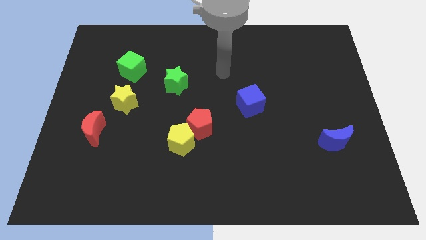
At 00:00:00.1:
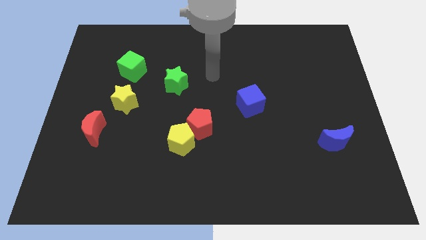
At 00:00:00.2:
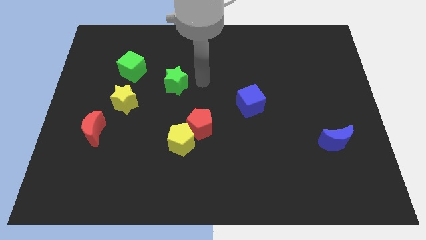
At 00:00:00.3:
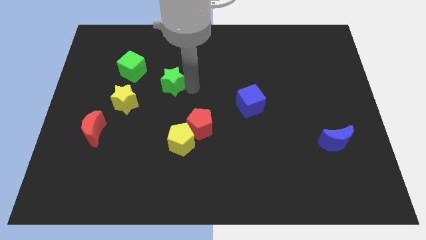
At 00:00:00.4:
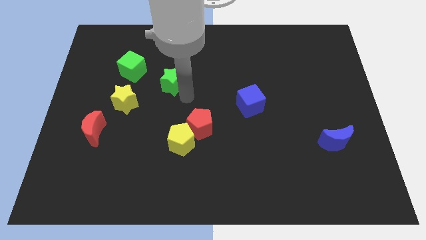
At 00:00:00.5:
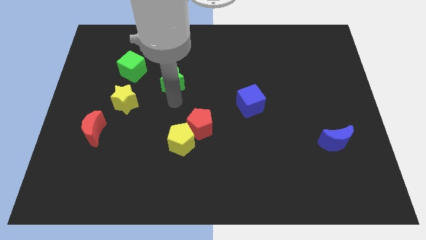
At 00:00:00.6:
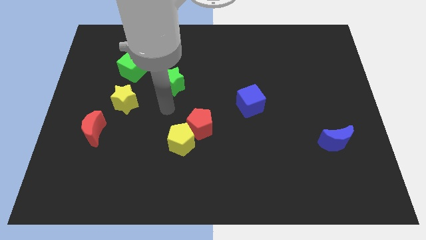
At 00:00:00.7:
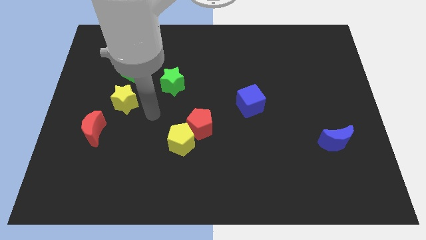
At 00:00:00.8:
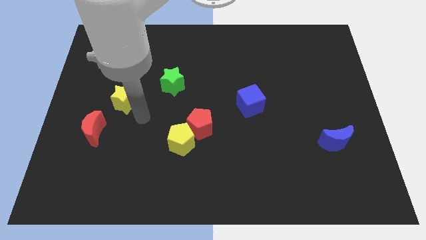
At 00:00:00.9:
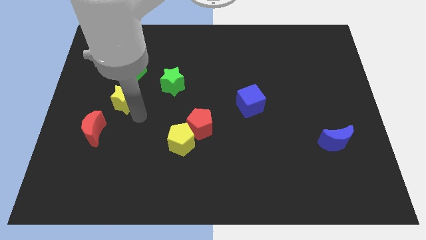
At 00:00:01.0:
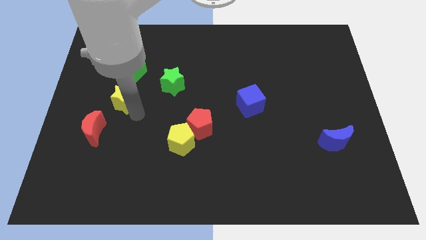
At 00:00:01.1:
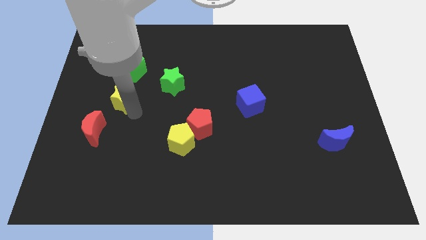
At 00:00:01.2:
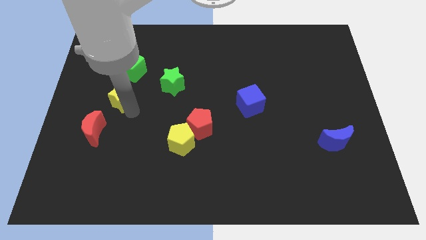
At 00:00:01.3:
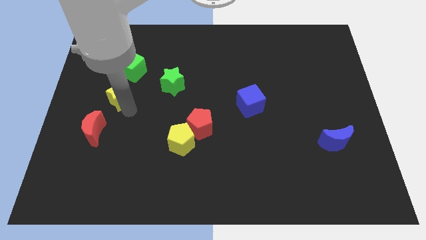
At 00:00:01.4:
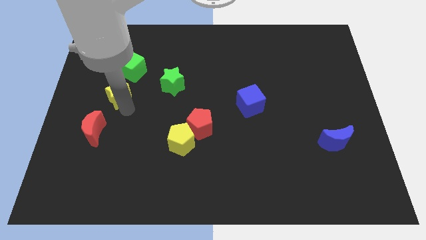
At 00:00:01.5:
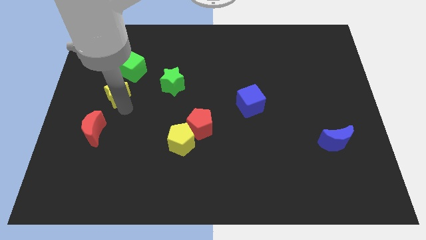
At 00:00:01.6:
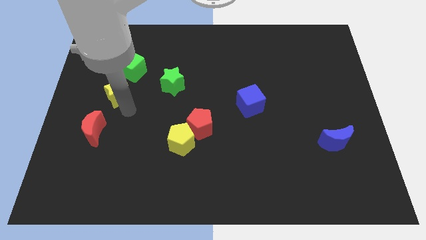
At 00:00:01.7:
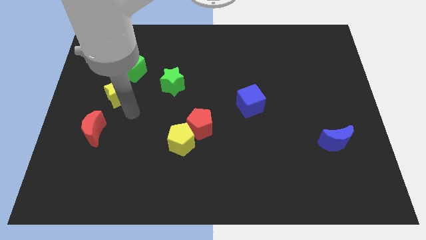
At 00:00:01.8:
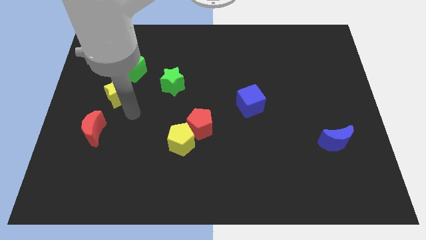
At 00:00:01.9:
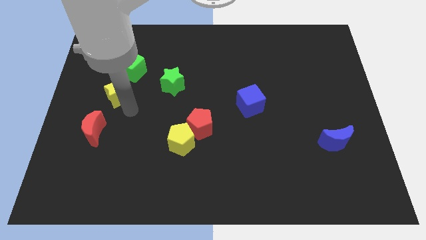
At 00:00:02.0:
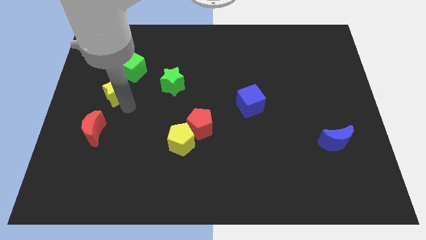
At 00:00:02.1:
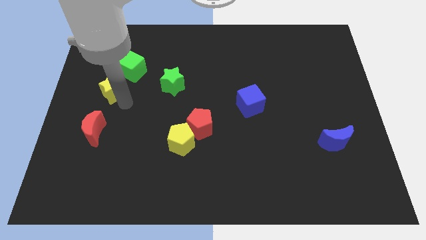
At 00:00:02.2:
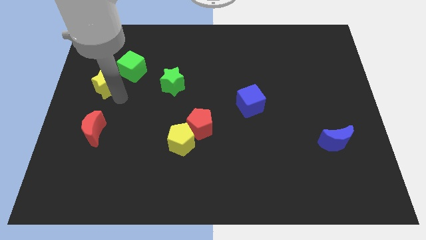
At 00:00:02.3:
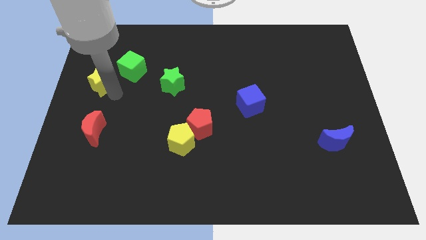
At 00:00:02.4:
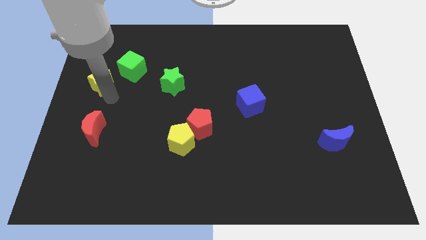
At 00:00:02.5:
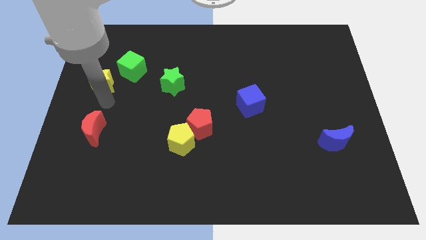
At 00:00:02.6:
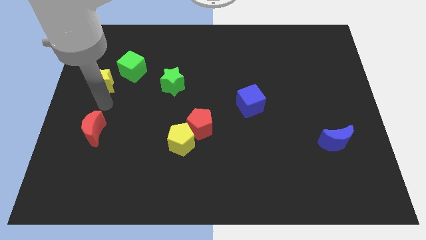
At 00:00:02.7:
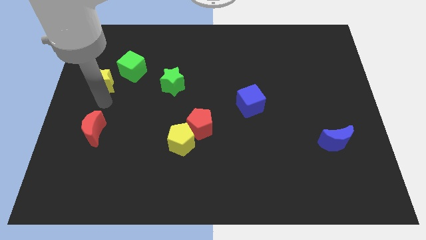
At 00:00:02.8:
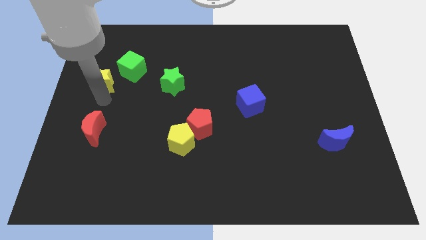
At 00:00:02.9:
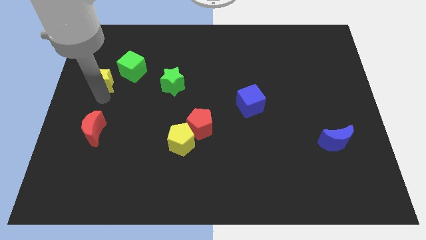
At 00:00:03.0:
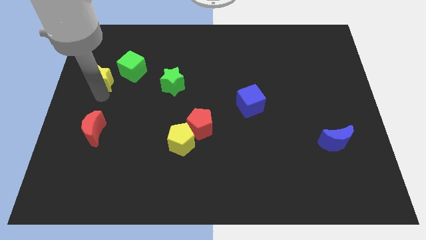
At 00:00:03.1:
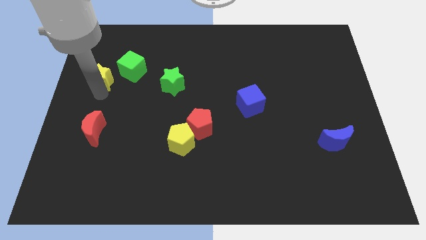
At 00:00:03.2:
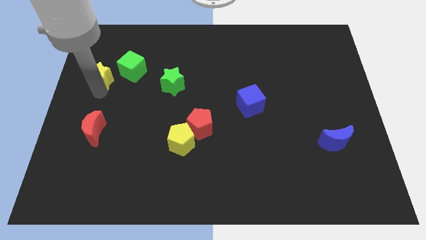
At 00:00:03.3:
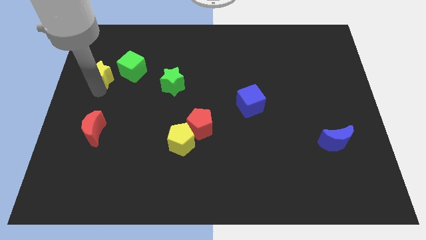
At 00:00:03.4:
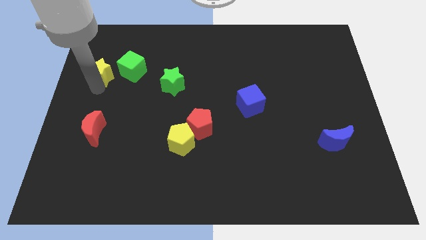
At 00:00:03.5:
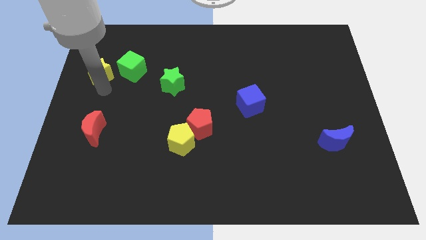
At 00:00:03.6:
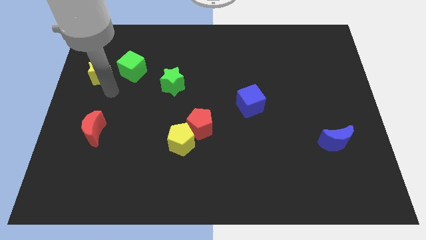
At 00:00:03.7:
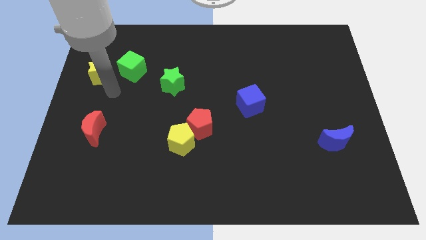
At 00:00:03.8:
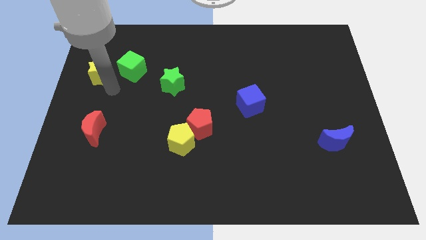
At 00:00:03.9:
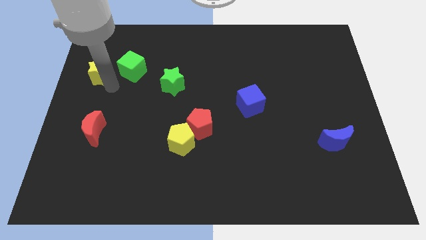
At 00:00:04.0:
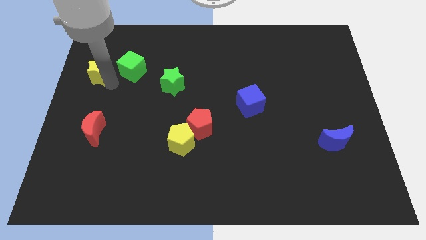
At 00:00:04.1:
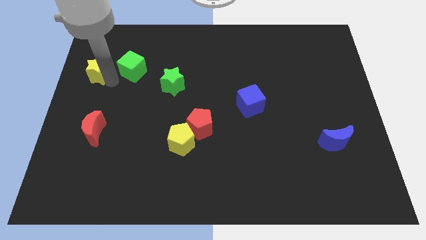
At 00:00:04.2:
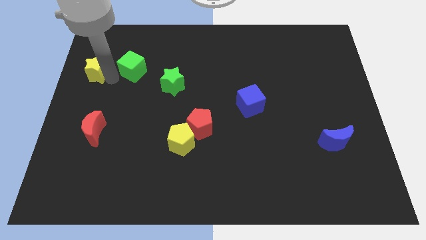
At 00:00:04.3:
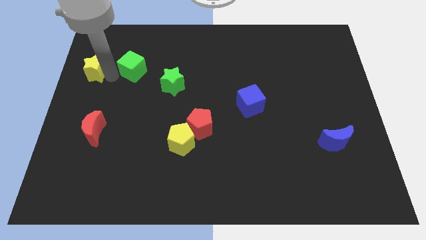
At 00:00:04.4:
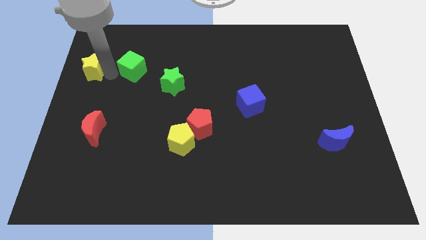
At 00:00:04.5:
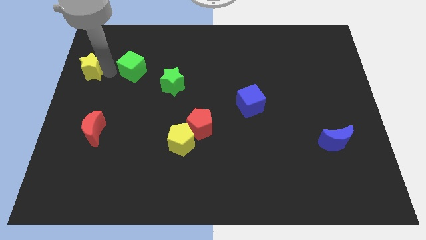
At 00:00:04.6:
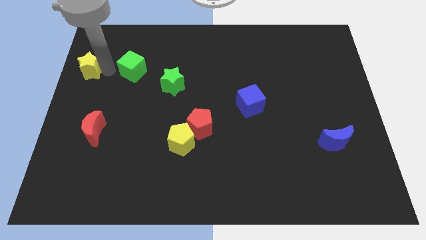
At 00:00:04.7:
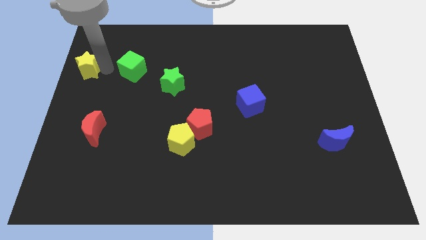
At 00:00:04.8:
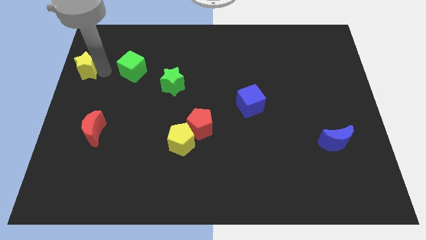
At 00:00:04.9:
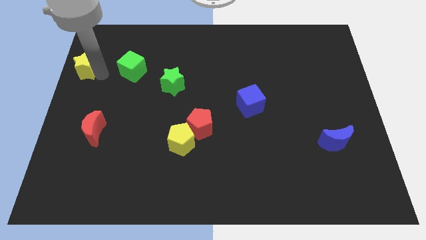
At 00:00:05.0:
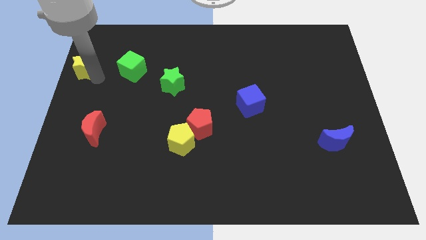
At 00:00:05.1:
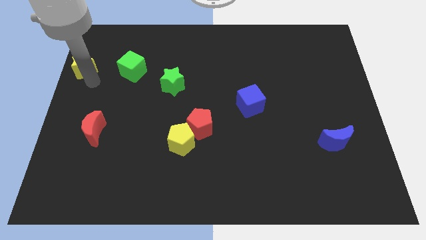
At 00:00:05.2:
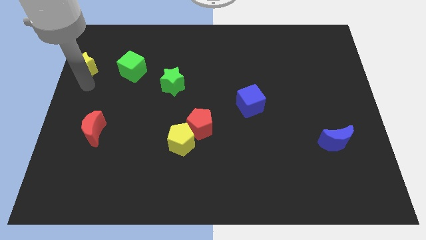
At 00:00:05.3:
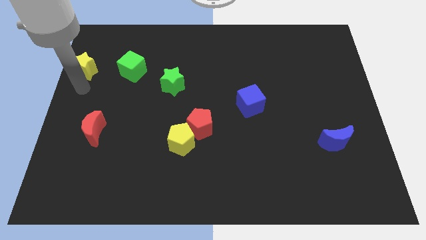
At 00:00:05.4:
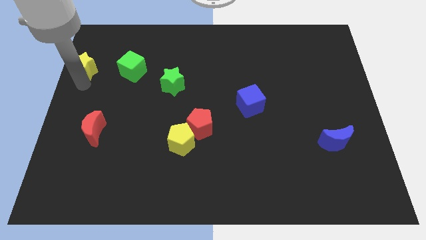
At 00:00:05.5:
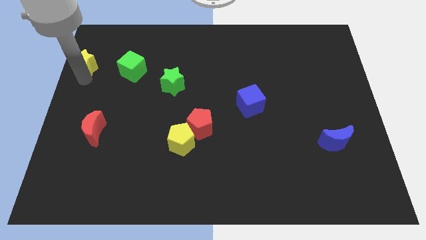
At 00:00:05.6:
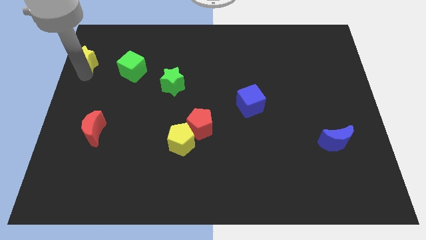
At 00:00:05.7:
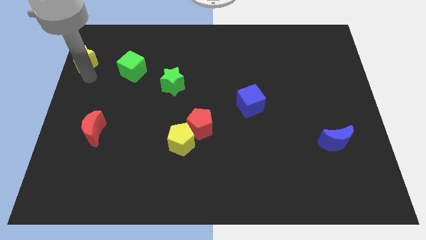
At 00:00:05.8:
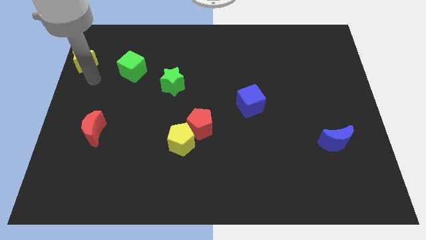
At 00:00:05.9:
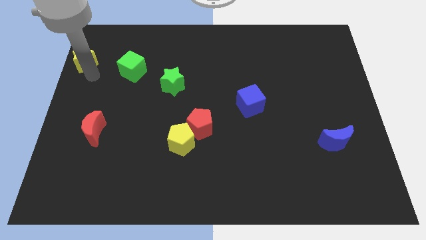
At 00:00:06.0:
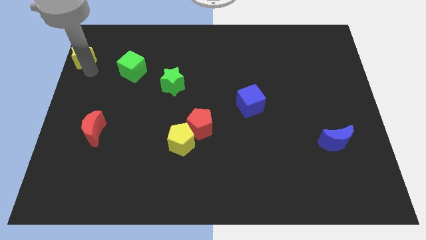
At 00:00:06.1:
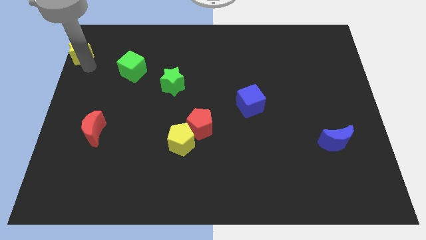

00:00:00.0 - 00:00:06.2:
slide the yellow star to the top left corner

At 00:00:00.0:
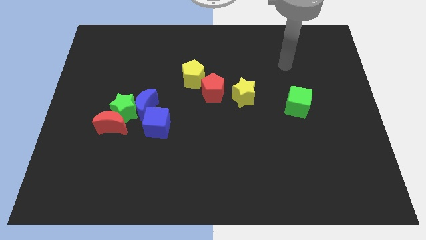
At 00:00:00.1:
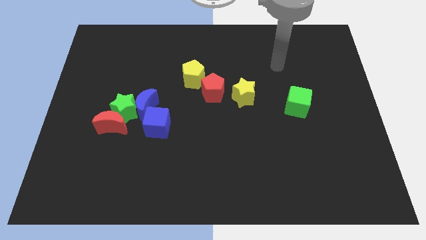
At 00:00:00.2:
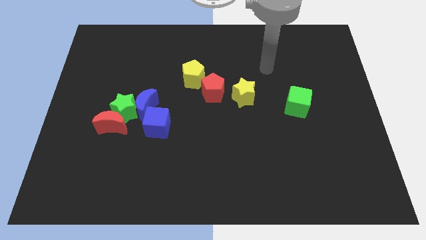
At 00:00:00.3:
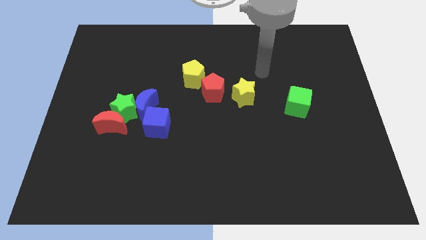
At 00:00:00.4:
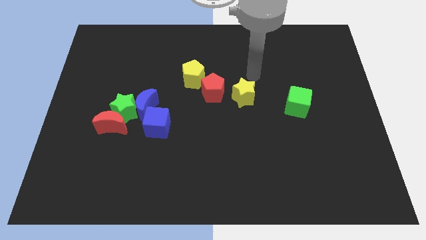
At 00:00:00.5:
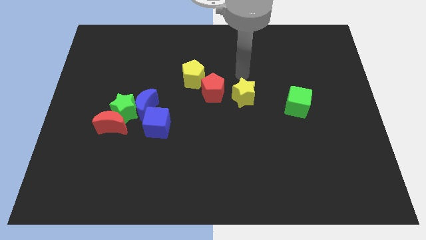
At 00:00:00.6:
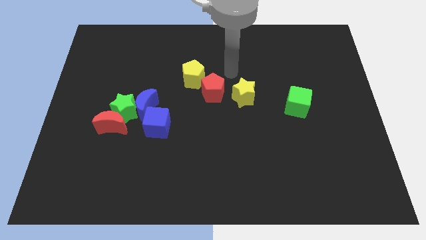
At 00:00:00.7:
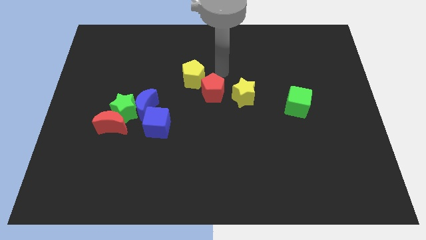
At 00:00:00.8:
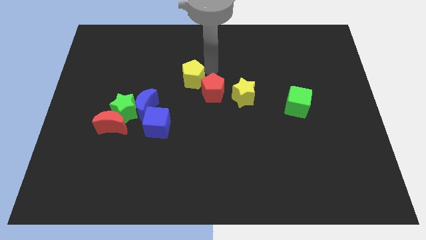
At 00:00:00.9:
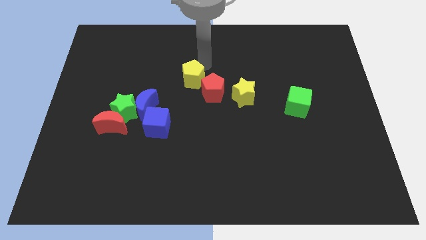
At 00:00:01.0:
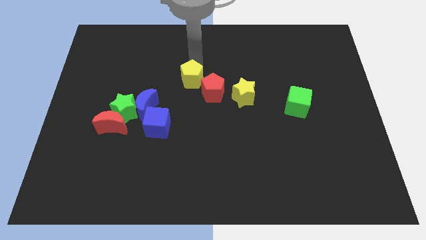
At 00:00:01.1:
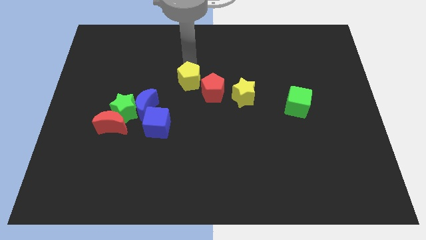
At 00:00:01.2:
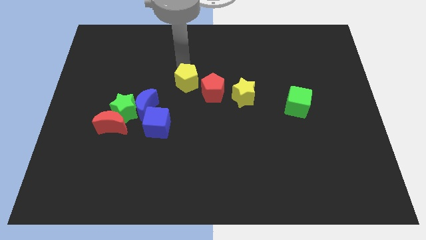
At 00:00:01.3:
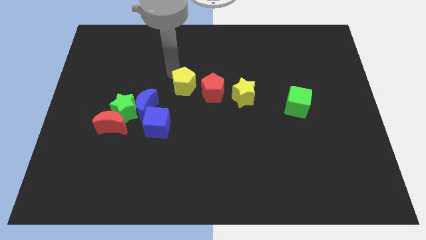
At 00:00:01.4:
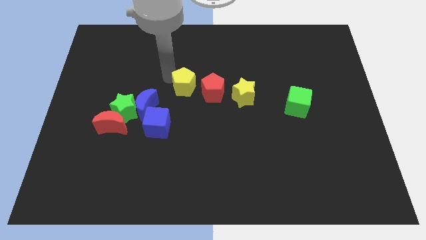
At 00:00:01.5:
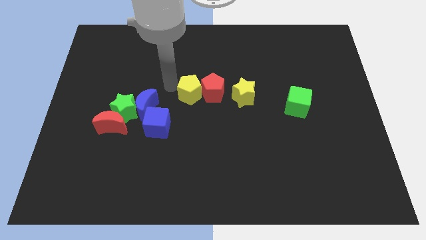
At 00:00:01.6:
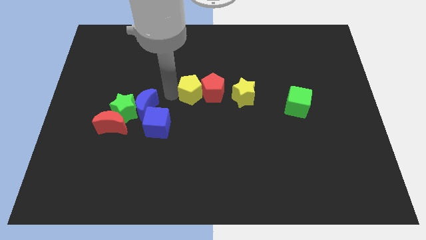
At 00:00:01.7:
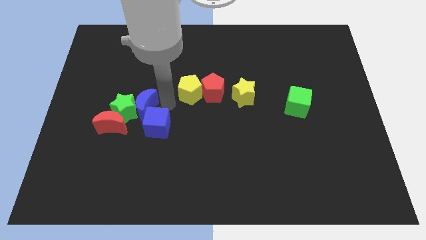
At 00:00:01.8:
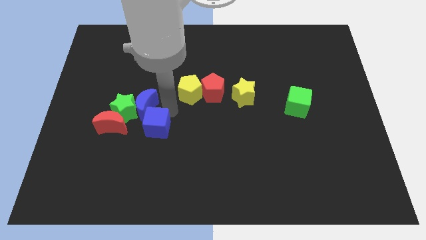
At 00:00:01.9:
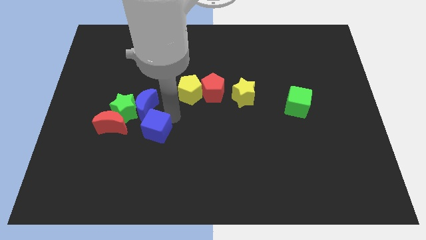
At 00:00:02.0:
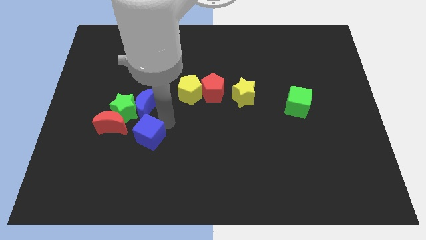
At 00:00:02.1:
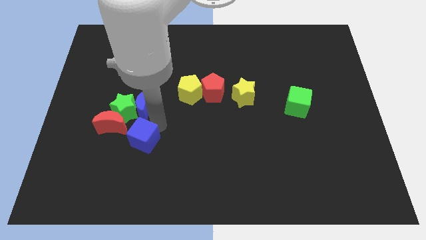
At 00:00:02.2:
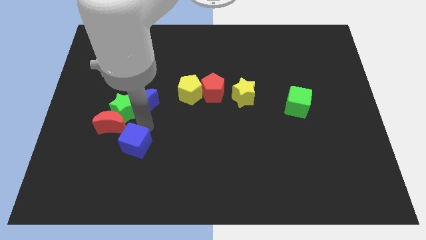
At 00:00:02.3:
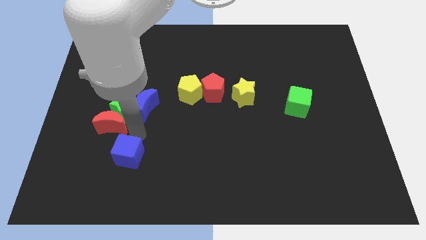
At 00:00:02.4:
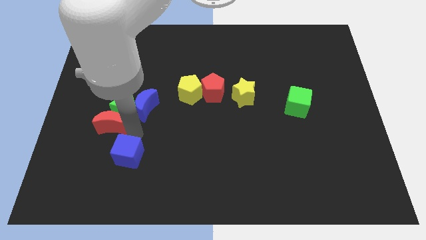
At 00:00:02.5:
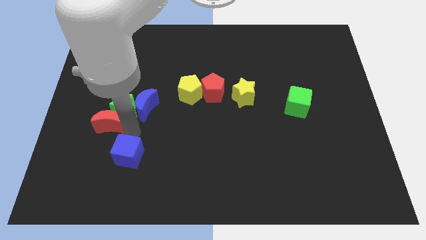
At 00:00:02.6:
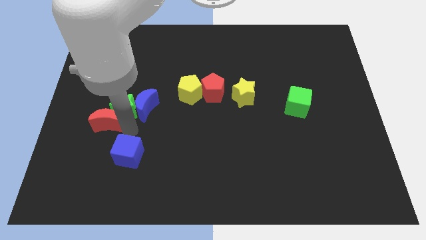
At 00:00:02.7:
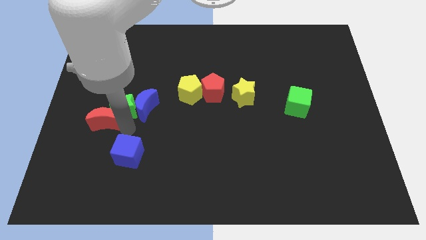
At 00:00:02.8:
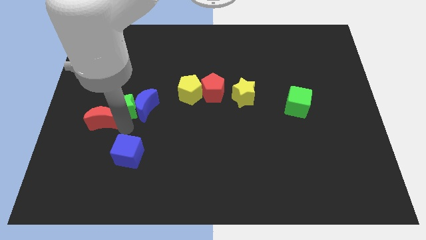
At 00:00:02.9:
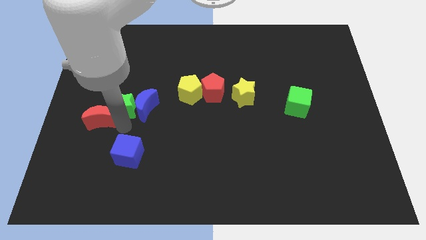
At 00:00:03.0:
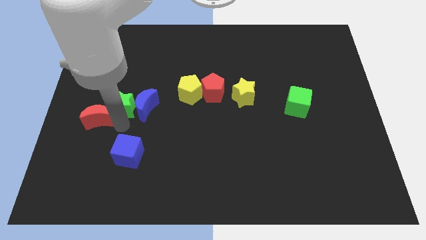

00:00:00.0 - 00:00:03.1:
push the red moon to the left side of the board
